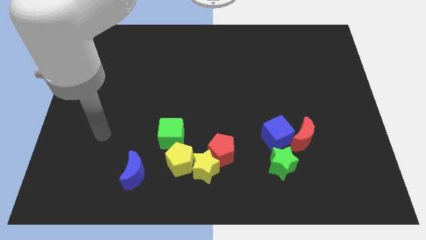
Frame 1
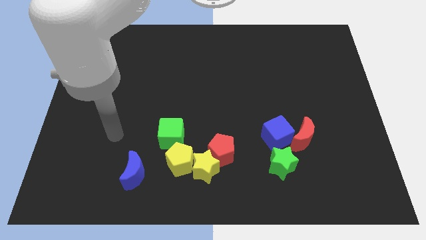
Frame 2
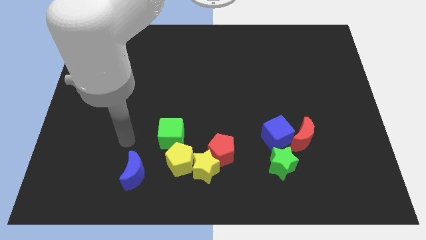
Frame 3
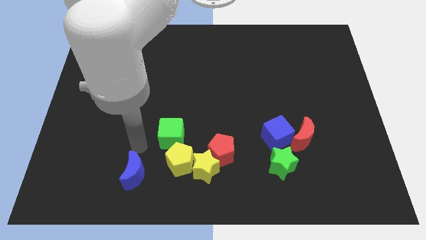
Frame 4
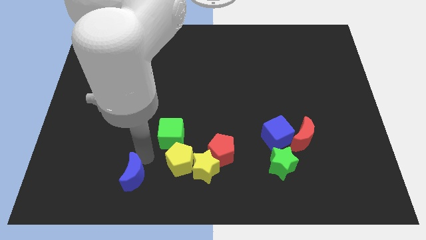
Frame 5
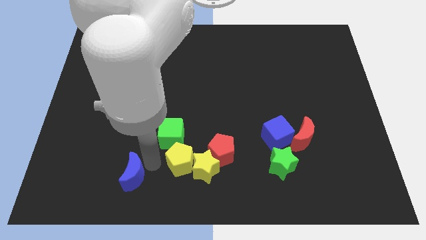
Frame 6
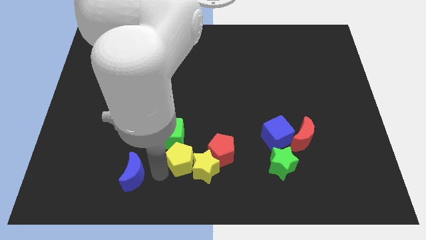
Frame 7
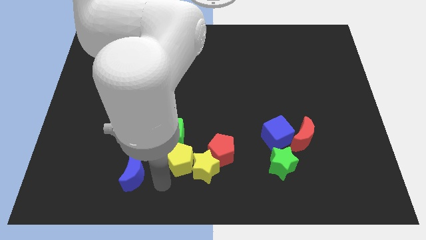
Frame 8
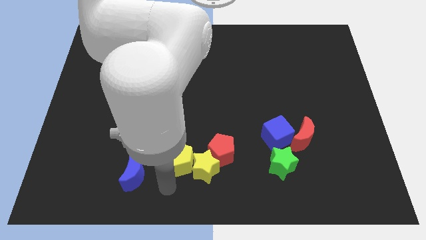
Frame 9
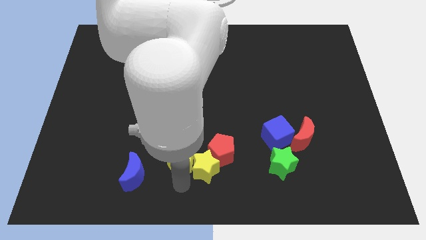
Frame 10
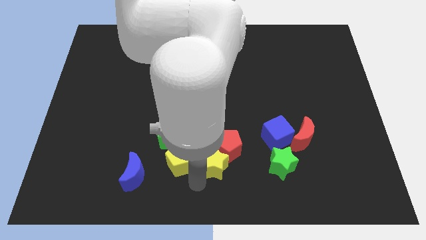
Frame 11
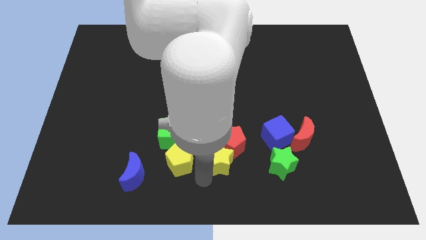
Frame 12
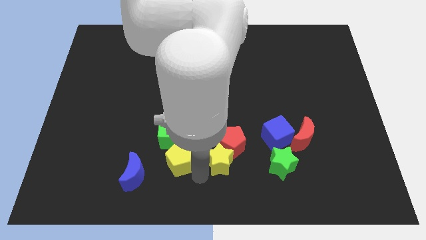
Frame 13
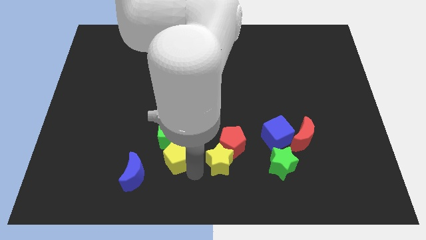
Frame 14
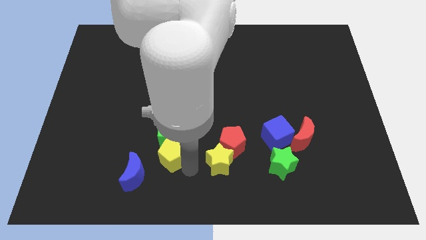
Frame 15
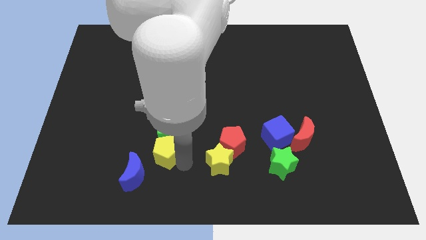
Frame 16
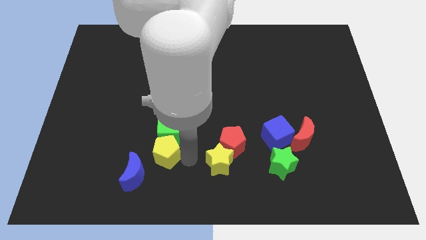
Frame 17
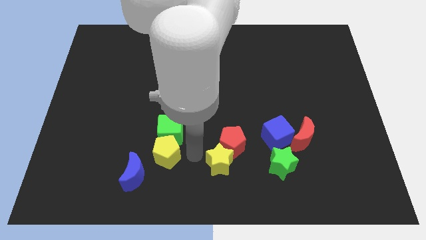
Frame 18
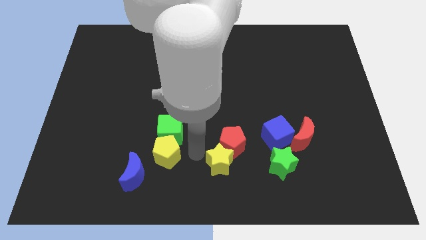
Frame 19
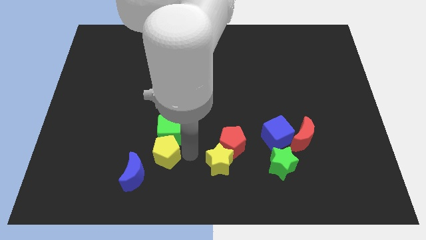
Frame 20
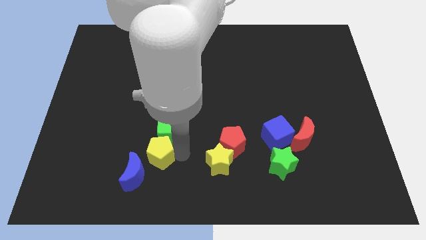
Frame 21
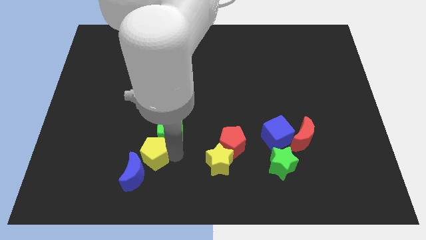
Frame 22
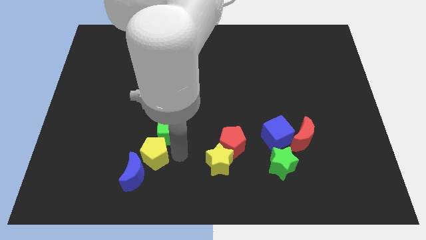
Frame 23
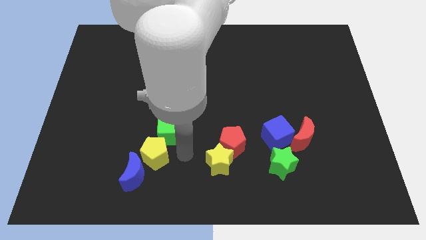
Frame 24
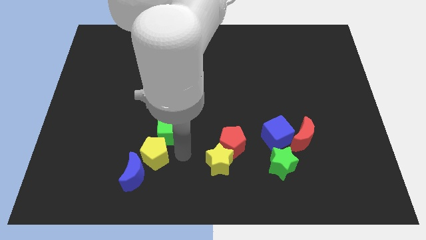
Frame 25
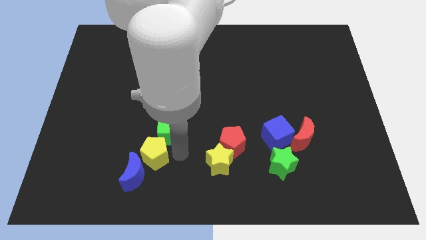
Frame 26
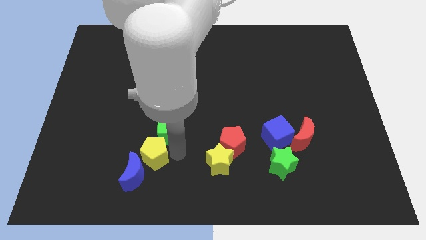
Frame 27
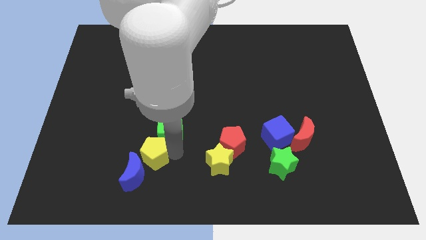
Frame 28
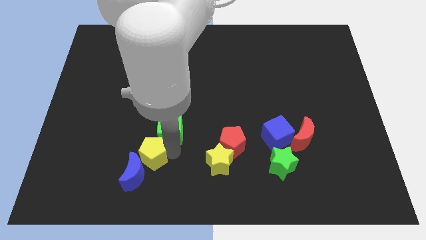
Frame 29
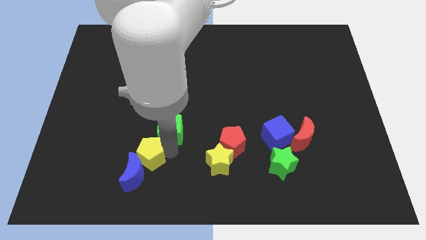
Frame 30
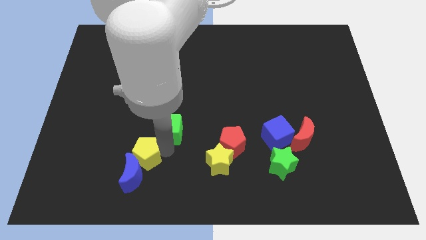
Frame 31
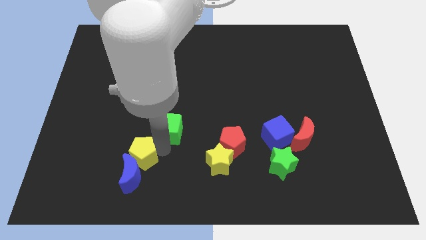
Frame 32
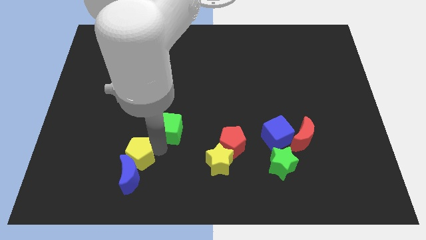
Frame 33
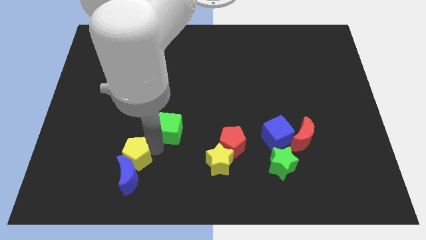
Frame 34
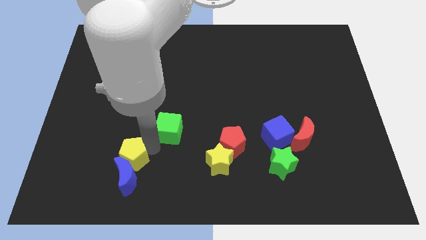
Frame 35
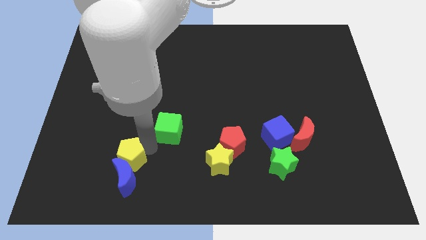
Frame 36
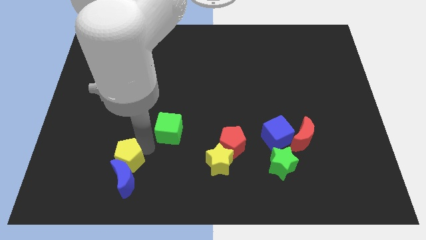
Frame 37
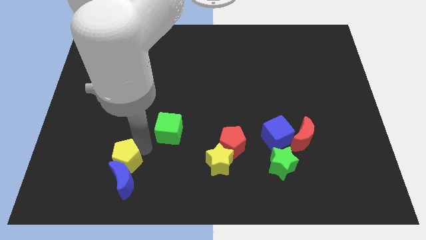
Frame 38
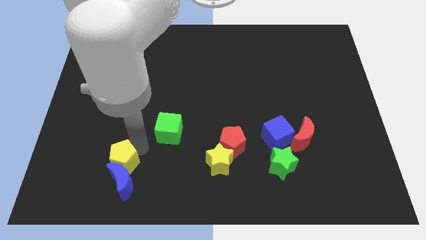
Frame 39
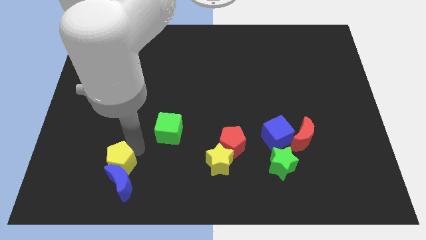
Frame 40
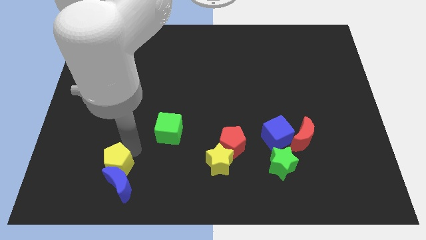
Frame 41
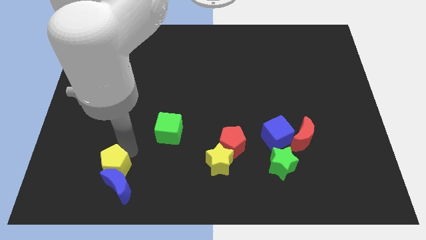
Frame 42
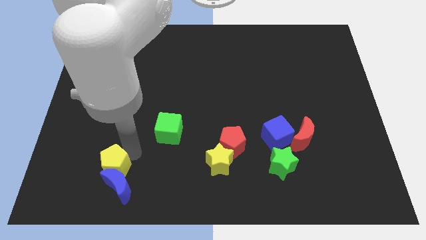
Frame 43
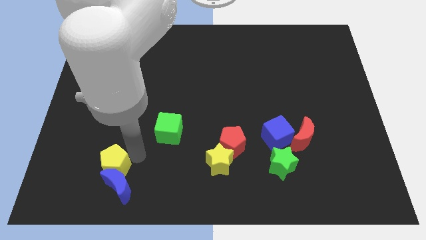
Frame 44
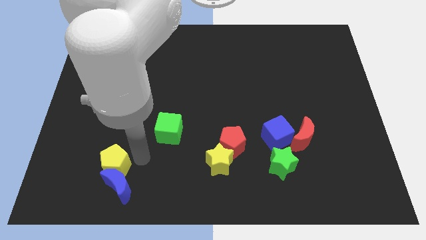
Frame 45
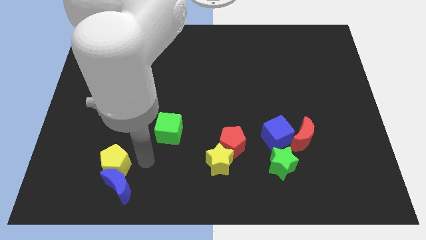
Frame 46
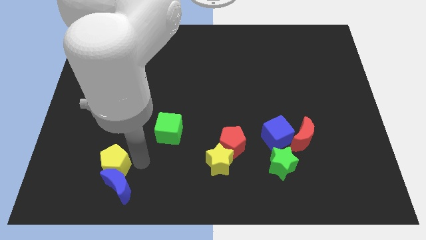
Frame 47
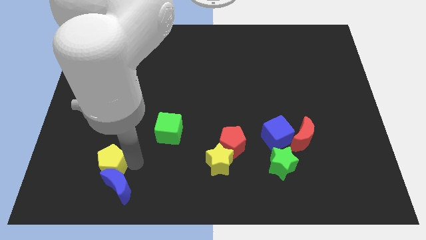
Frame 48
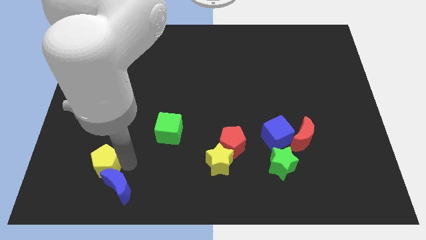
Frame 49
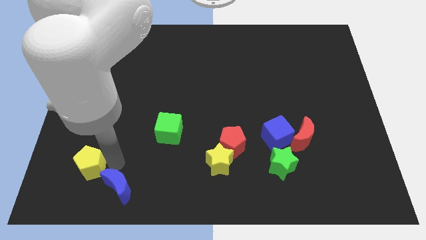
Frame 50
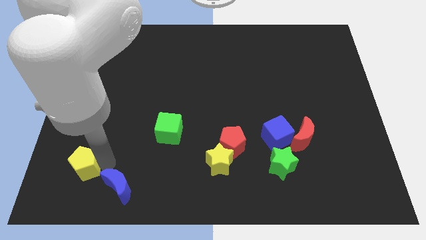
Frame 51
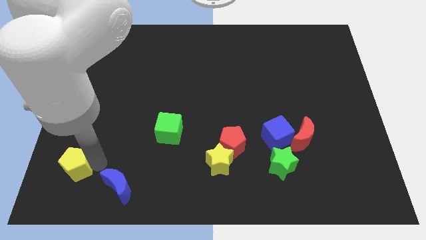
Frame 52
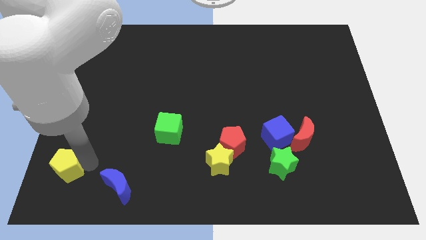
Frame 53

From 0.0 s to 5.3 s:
put the yellow pentagon to the lower left corner
